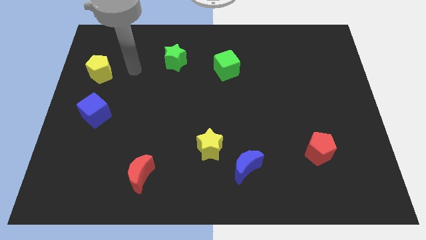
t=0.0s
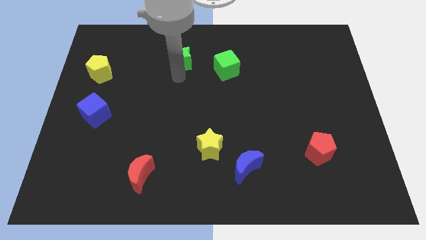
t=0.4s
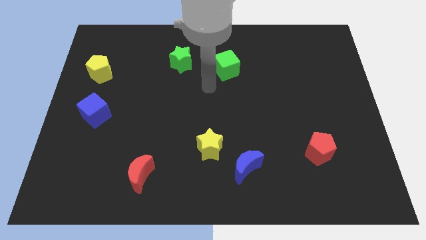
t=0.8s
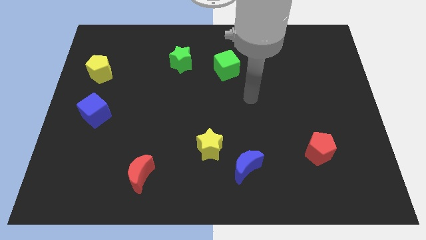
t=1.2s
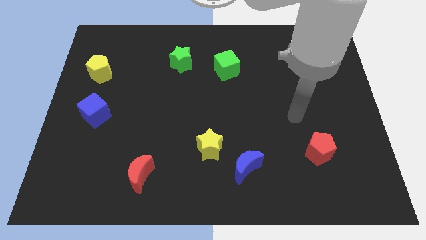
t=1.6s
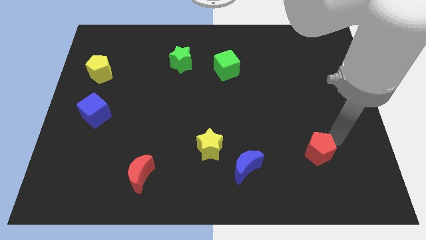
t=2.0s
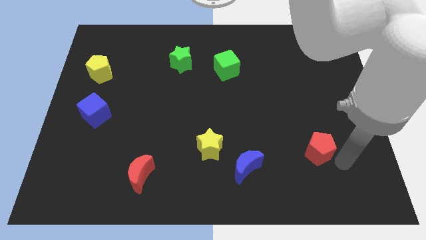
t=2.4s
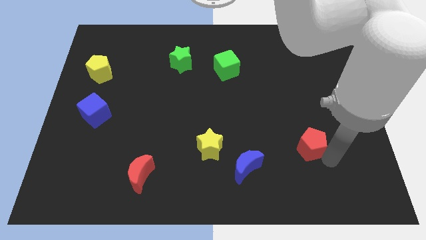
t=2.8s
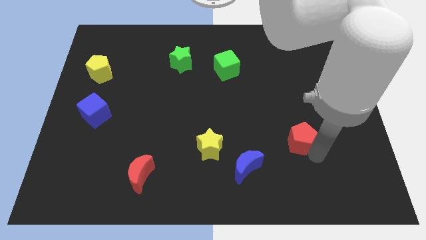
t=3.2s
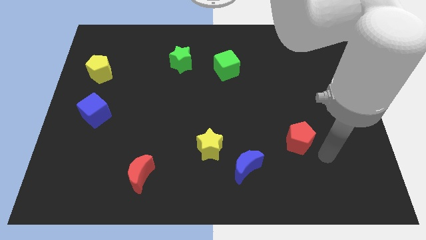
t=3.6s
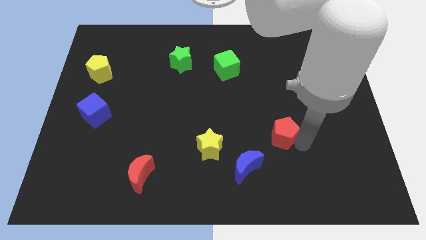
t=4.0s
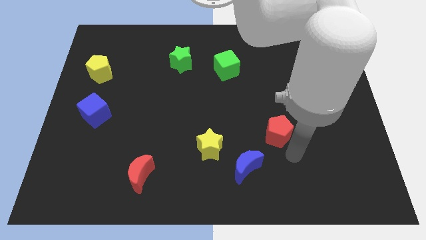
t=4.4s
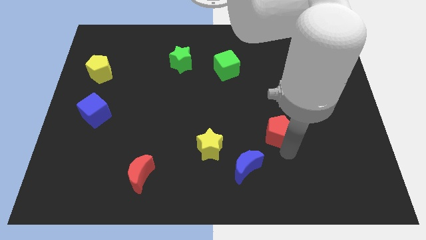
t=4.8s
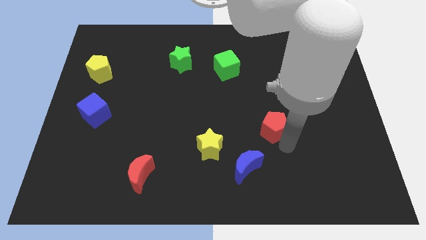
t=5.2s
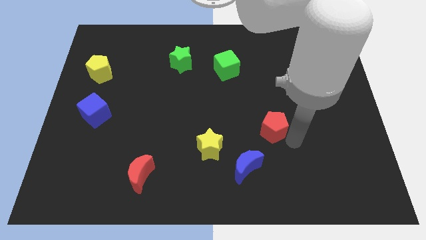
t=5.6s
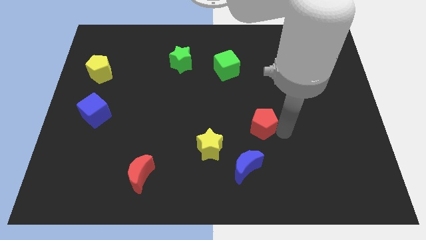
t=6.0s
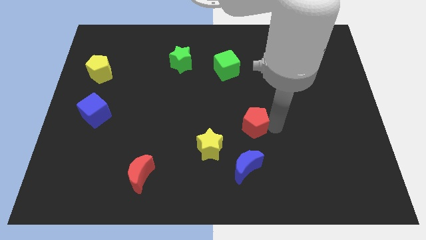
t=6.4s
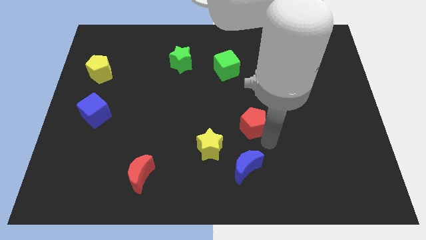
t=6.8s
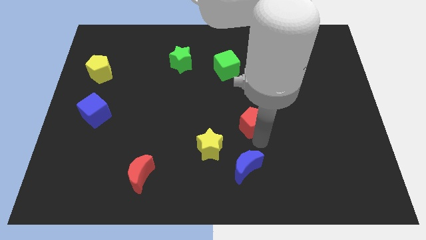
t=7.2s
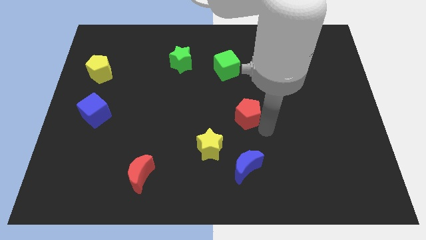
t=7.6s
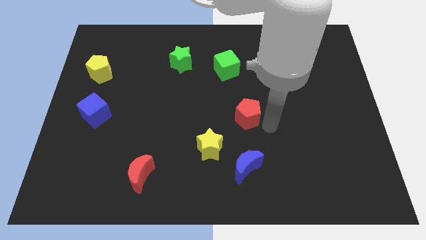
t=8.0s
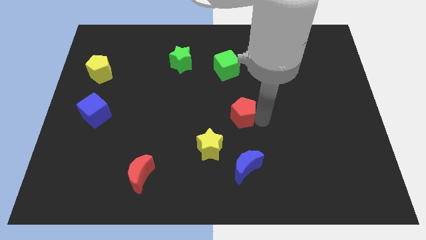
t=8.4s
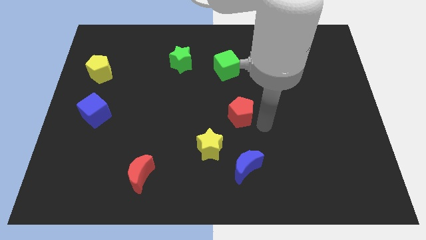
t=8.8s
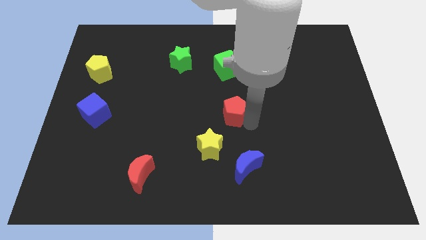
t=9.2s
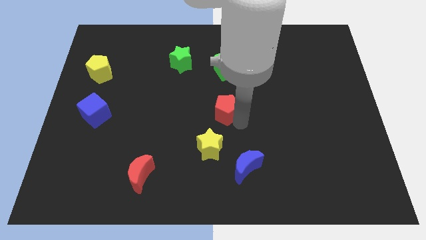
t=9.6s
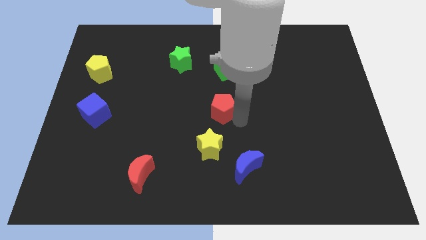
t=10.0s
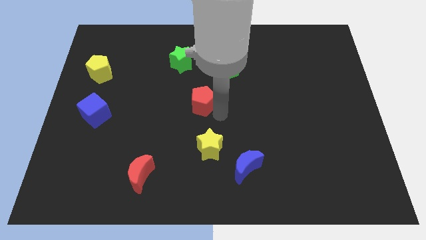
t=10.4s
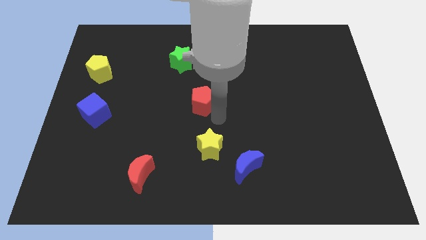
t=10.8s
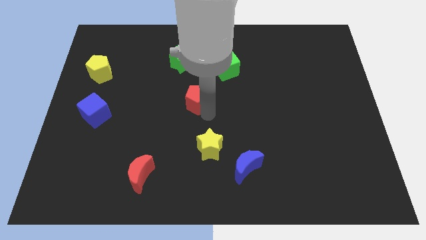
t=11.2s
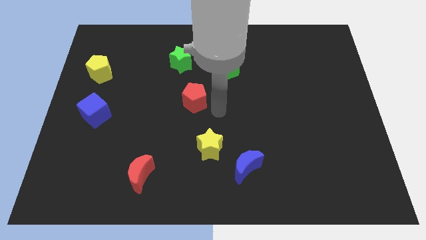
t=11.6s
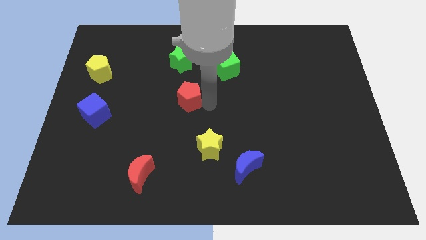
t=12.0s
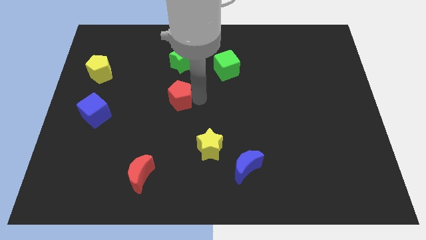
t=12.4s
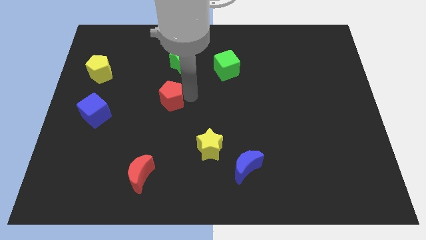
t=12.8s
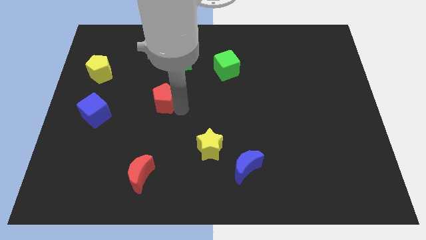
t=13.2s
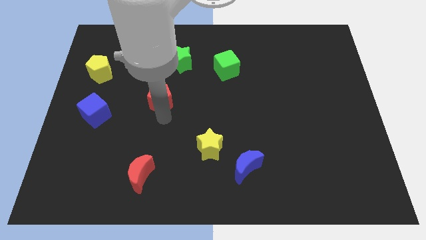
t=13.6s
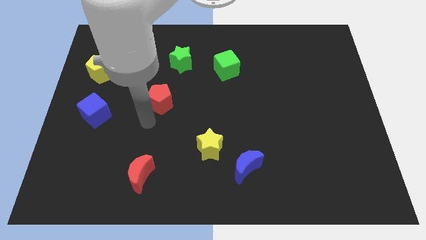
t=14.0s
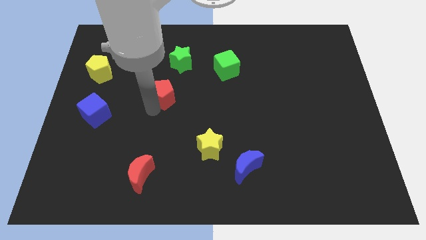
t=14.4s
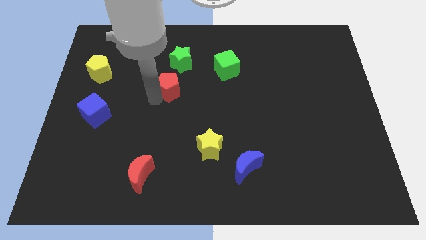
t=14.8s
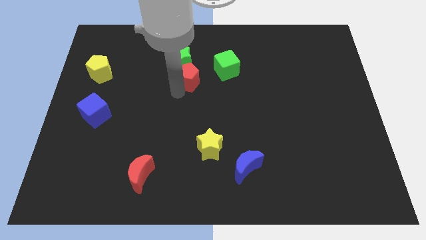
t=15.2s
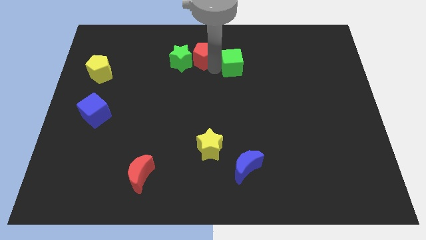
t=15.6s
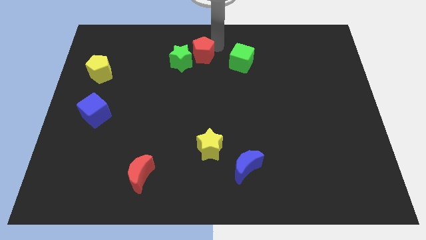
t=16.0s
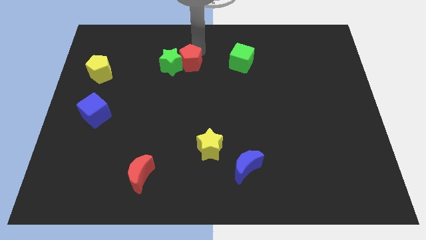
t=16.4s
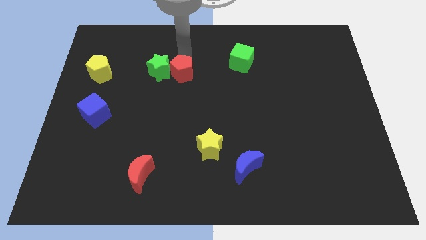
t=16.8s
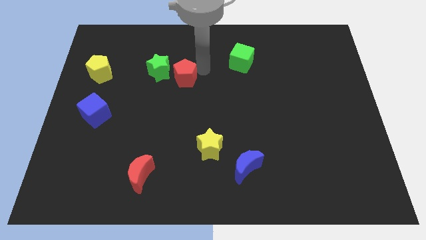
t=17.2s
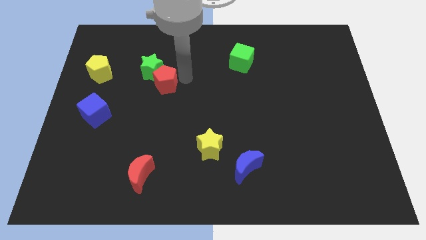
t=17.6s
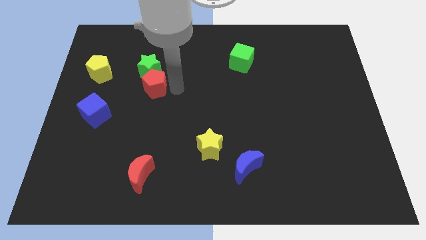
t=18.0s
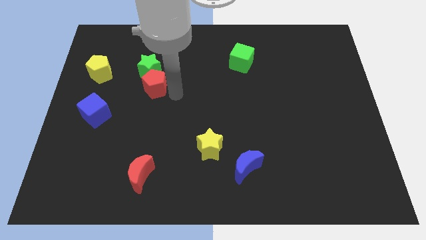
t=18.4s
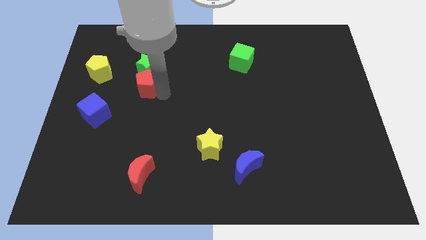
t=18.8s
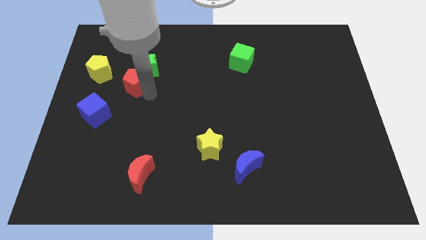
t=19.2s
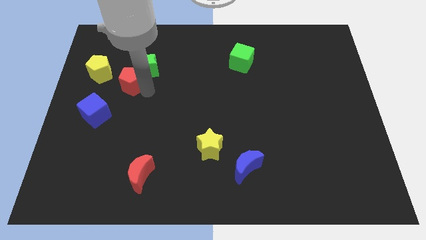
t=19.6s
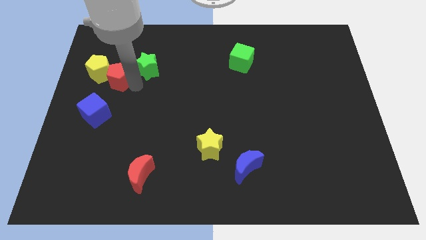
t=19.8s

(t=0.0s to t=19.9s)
push the red pentagon towards the yellow pentagon

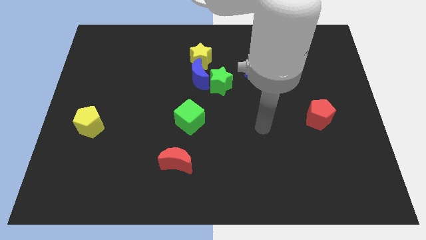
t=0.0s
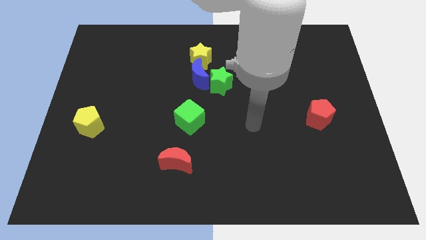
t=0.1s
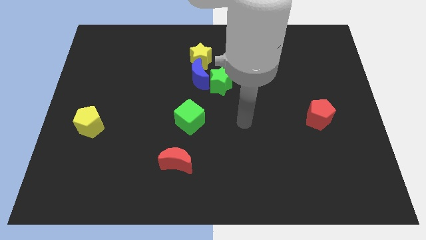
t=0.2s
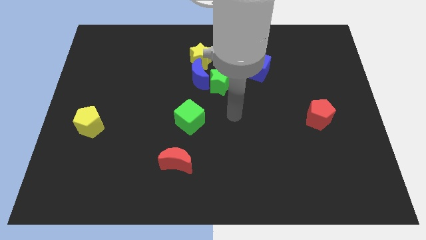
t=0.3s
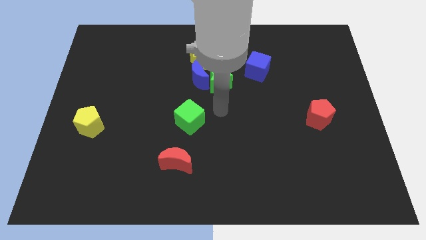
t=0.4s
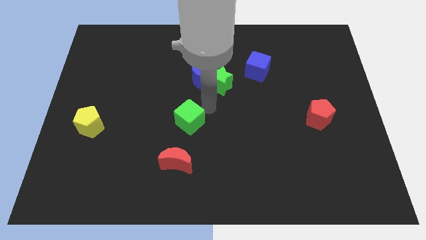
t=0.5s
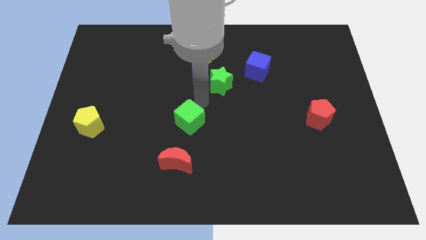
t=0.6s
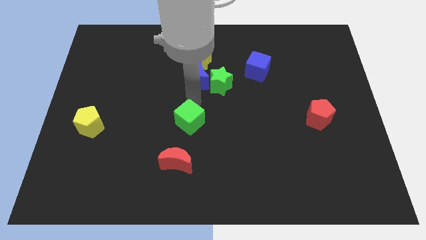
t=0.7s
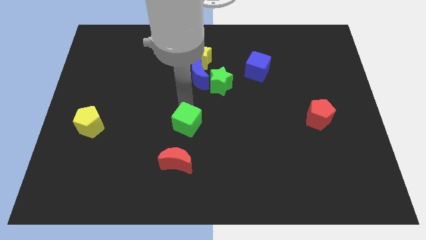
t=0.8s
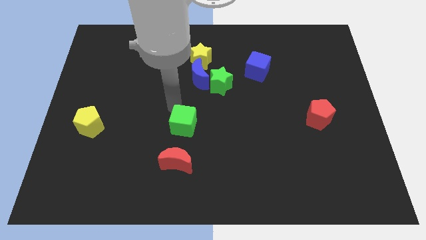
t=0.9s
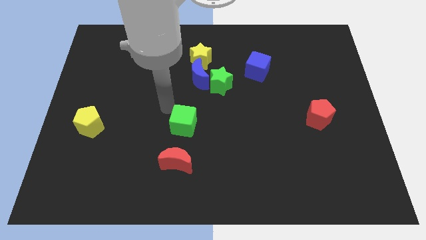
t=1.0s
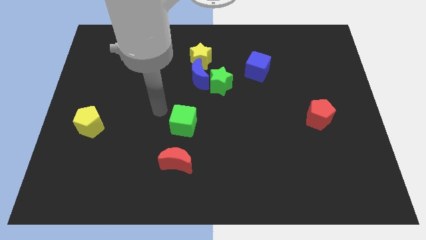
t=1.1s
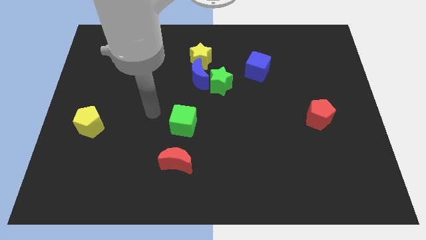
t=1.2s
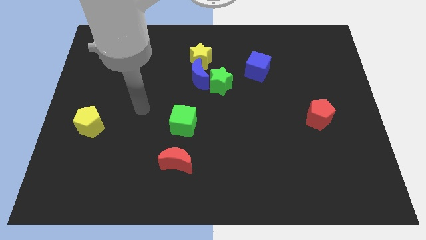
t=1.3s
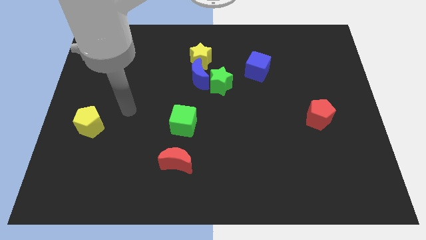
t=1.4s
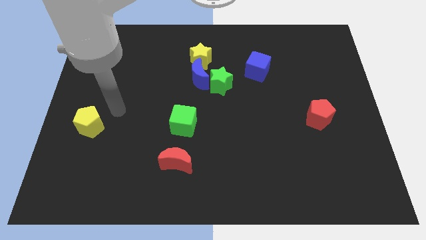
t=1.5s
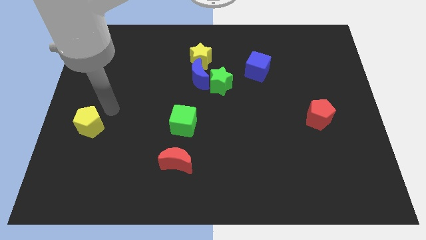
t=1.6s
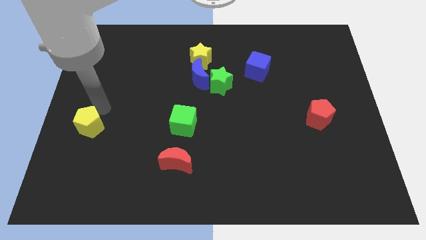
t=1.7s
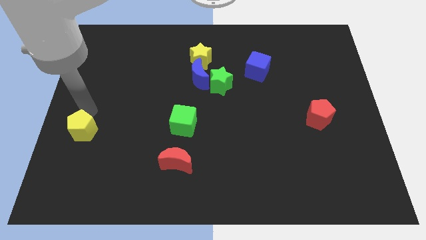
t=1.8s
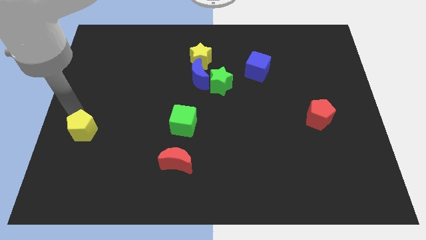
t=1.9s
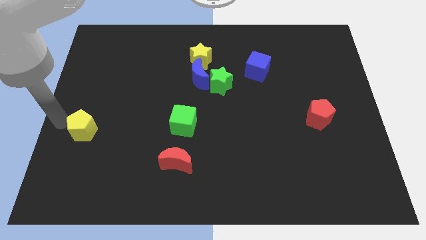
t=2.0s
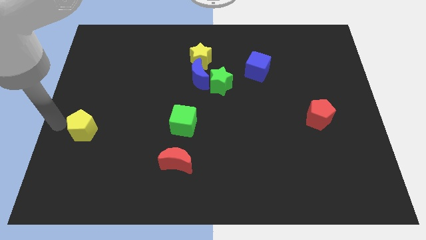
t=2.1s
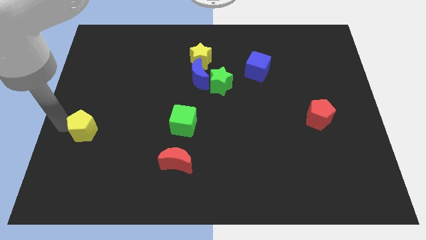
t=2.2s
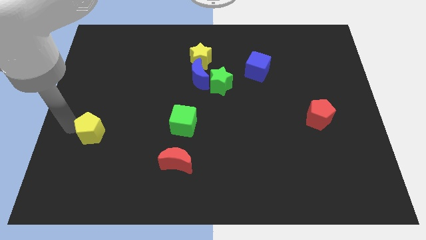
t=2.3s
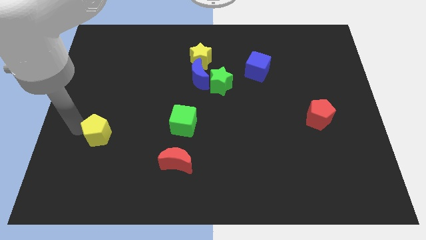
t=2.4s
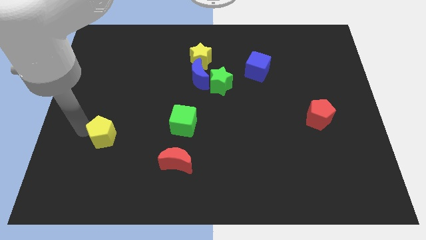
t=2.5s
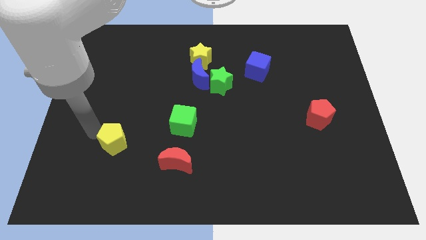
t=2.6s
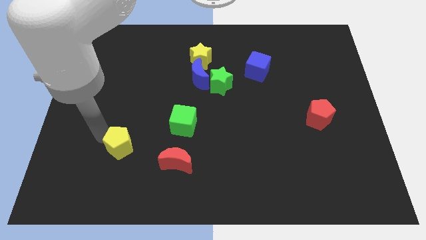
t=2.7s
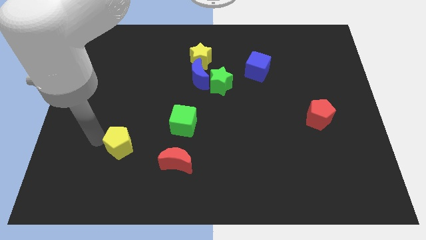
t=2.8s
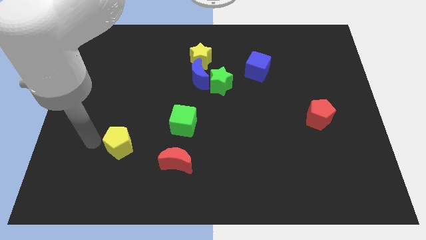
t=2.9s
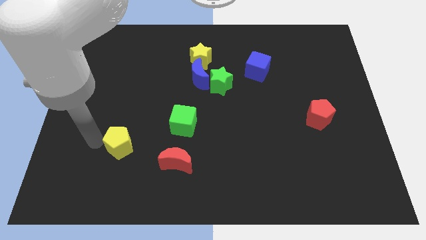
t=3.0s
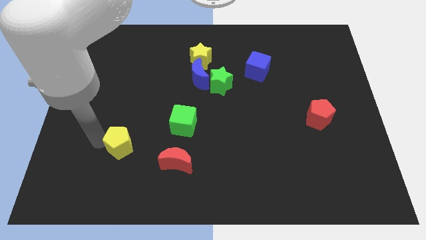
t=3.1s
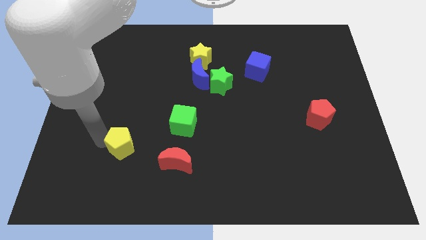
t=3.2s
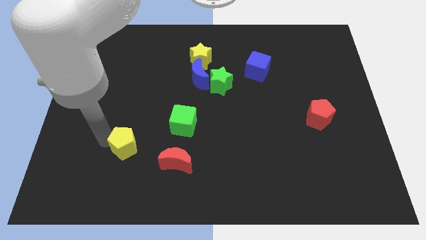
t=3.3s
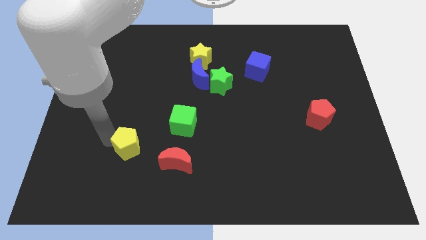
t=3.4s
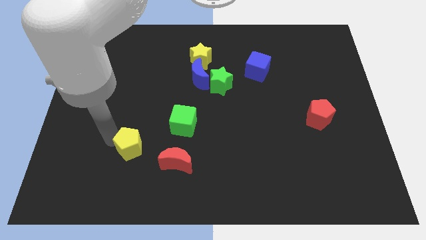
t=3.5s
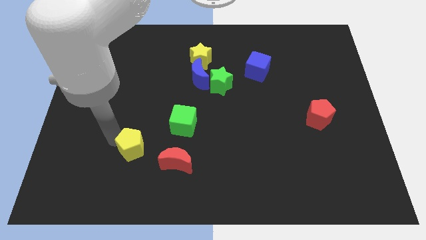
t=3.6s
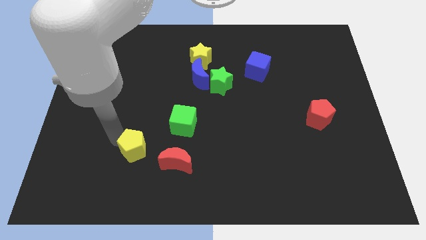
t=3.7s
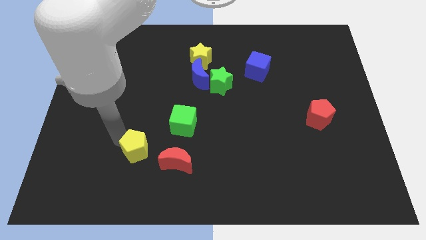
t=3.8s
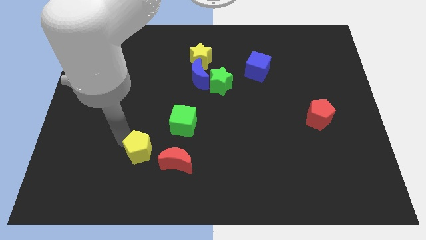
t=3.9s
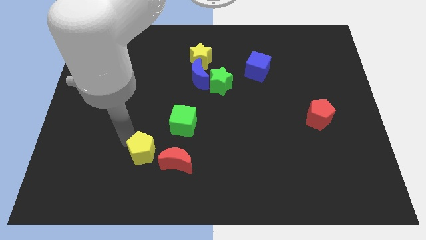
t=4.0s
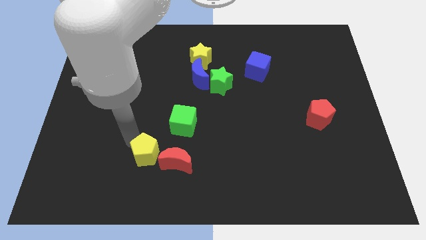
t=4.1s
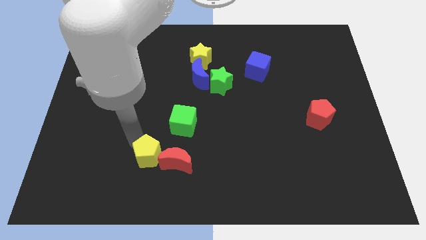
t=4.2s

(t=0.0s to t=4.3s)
slide the yellow pentagon to the red moon
